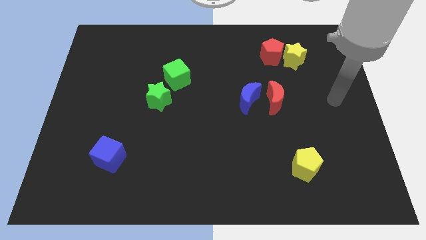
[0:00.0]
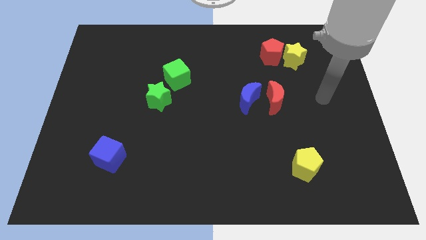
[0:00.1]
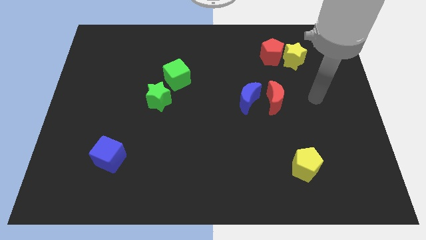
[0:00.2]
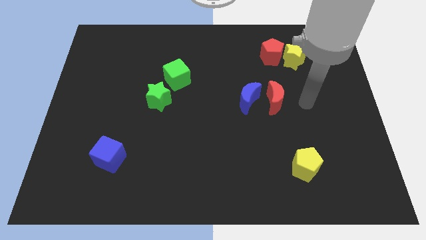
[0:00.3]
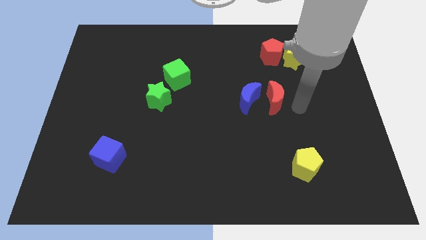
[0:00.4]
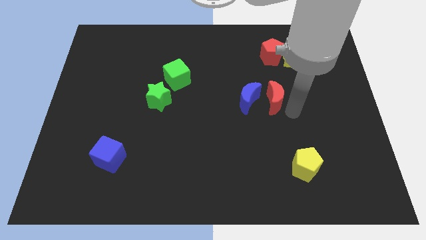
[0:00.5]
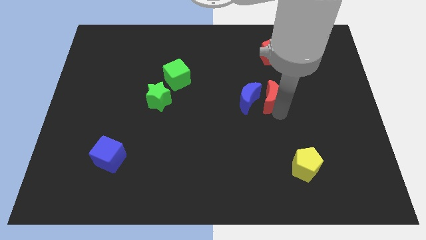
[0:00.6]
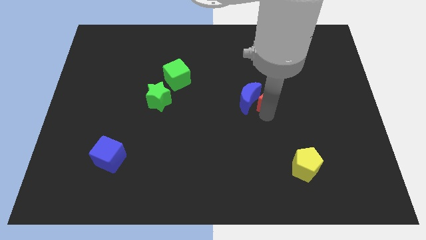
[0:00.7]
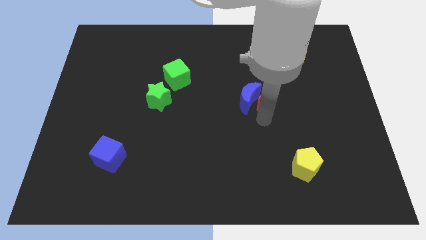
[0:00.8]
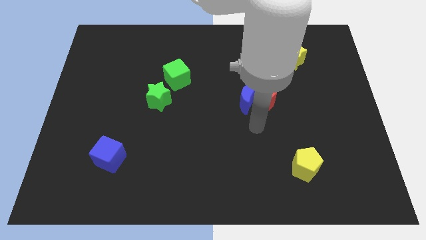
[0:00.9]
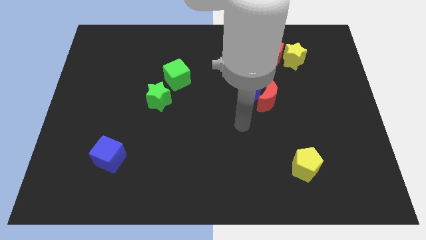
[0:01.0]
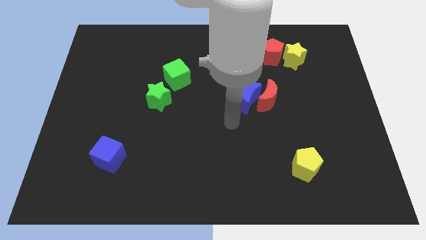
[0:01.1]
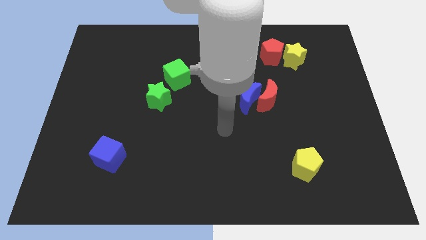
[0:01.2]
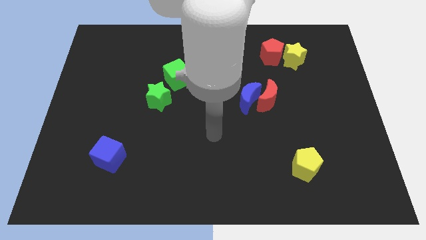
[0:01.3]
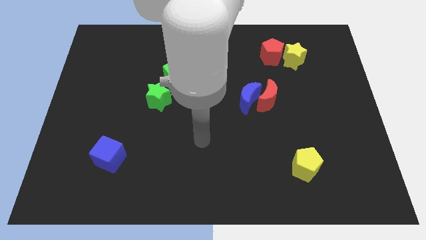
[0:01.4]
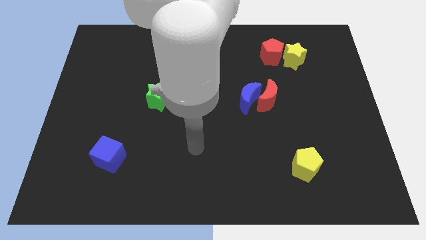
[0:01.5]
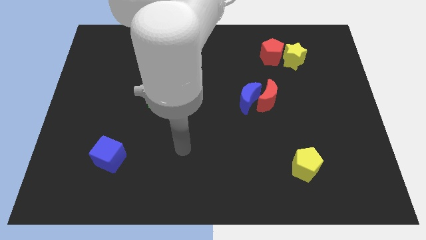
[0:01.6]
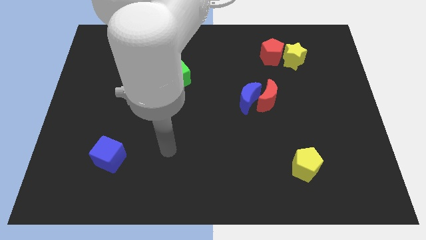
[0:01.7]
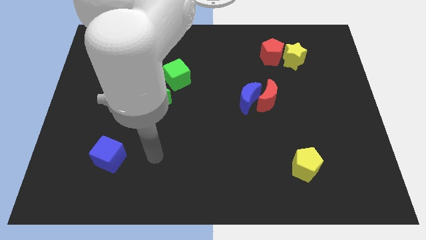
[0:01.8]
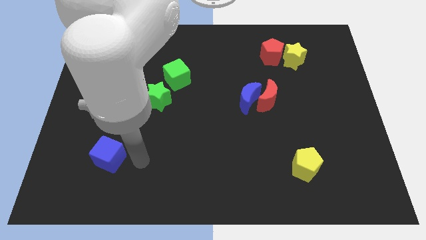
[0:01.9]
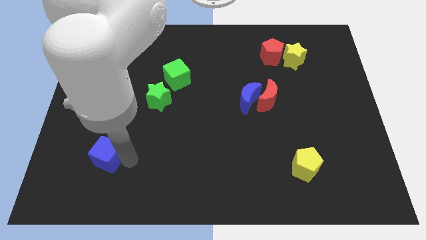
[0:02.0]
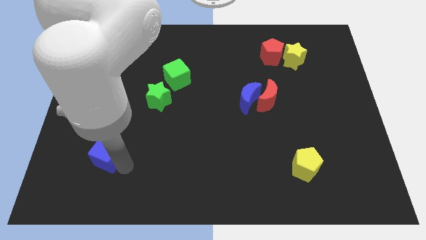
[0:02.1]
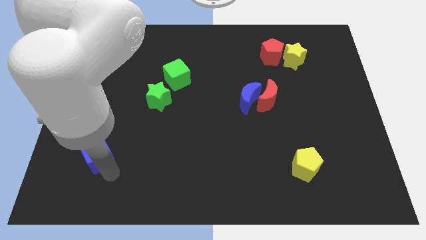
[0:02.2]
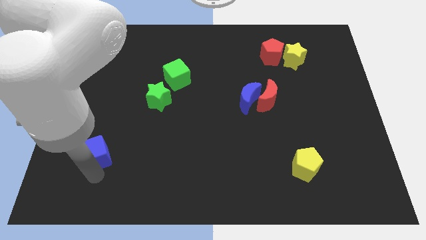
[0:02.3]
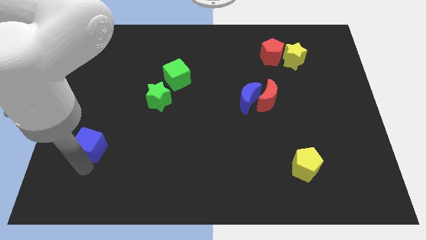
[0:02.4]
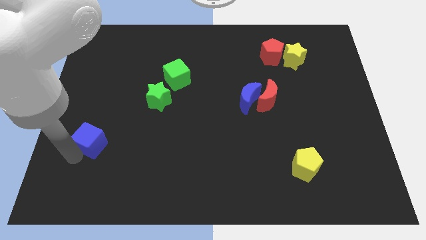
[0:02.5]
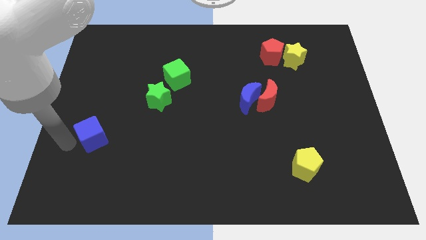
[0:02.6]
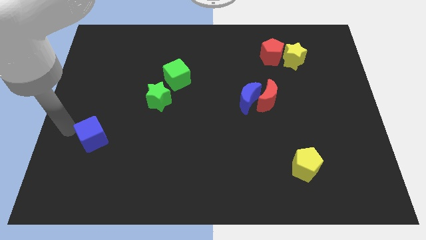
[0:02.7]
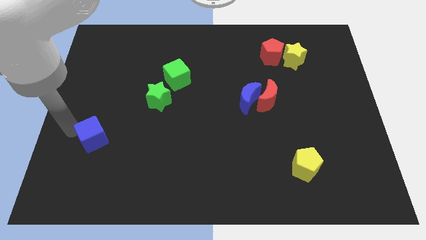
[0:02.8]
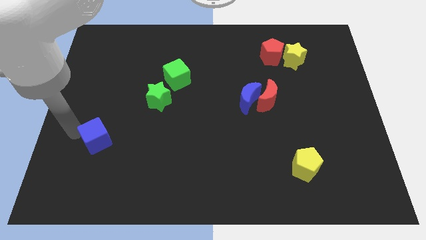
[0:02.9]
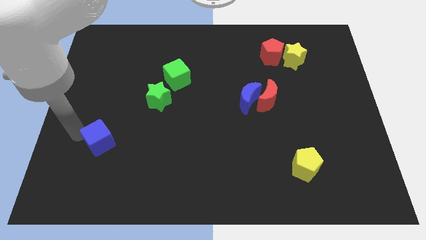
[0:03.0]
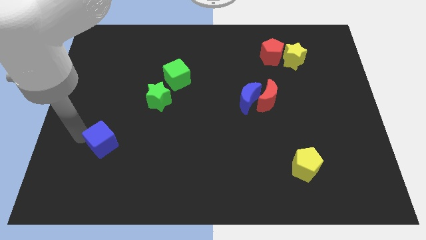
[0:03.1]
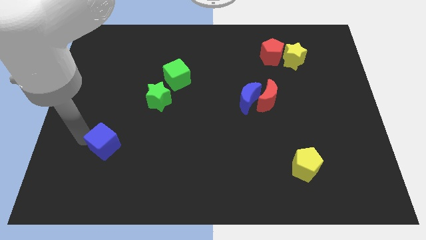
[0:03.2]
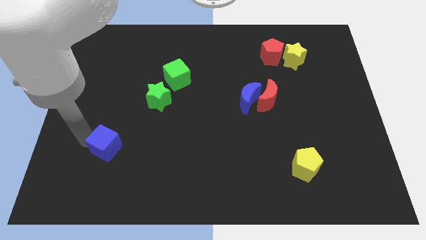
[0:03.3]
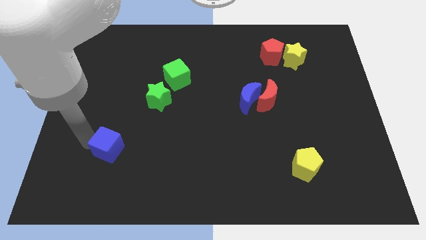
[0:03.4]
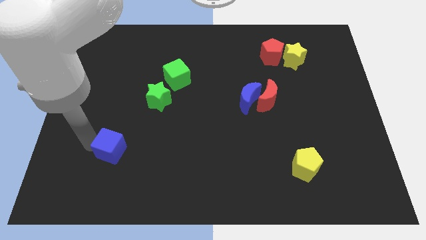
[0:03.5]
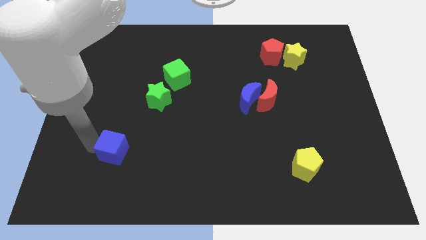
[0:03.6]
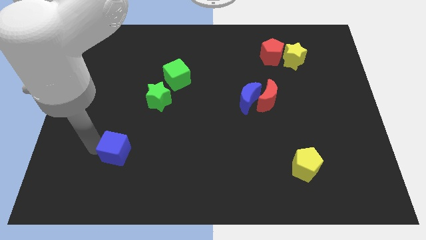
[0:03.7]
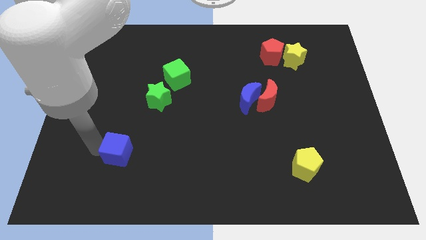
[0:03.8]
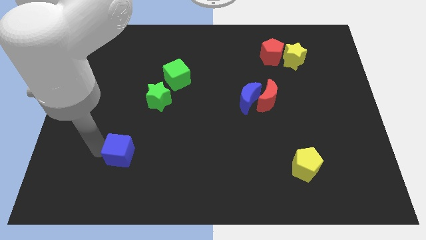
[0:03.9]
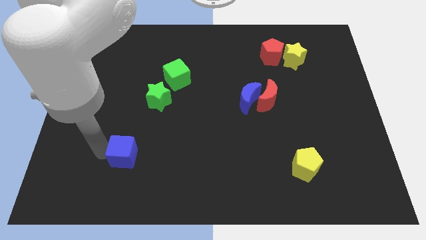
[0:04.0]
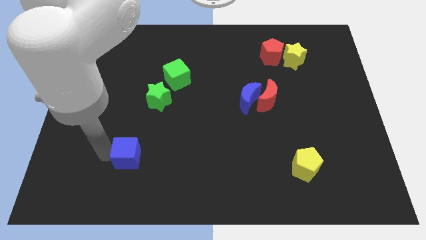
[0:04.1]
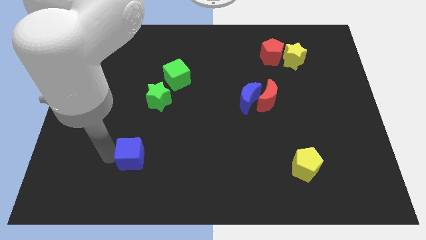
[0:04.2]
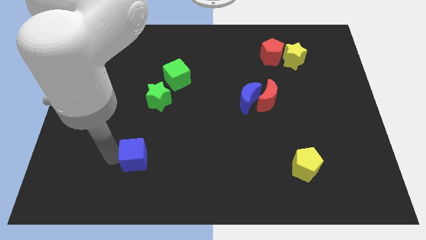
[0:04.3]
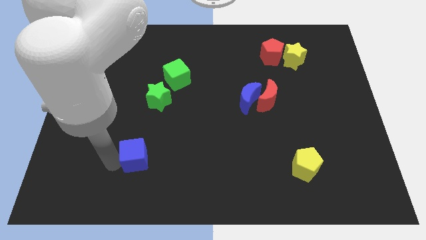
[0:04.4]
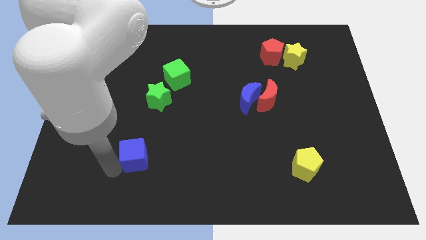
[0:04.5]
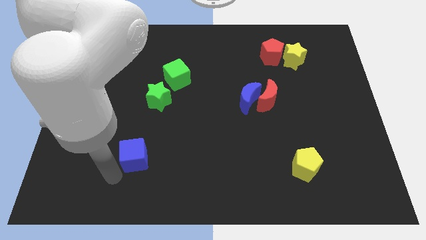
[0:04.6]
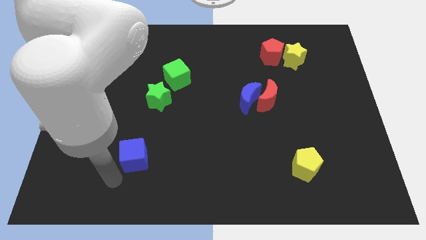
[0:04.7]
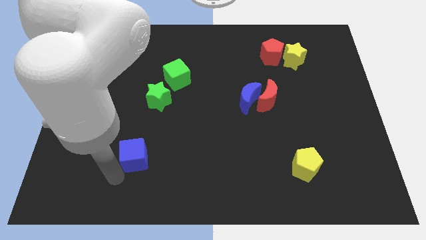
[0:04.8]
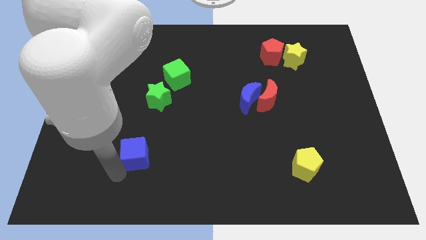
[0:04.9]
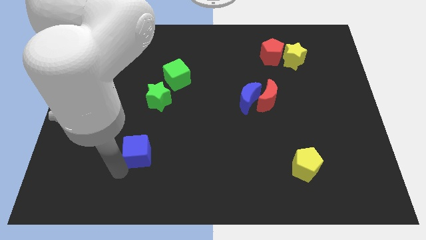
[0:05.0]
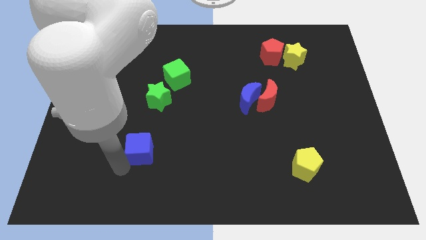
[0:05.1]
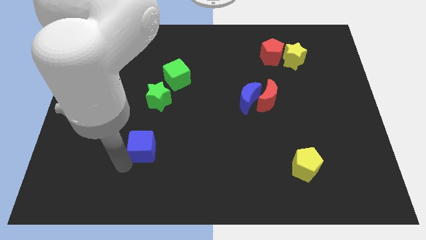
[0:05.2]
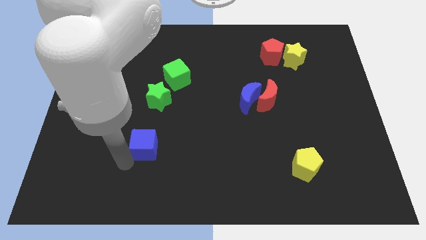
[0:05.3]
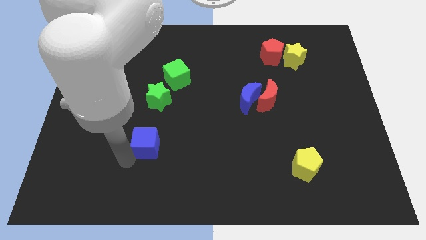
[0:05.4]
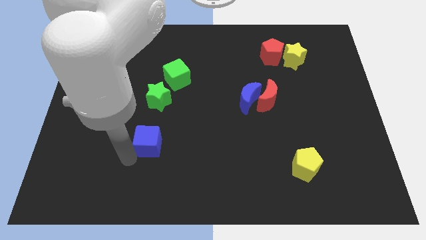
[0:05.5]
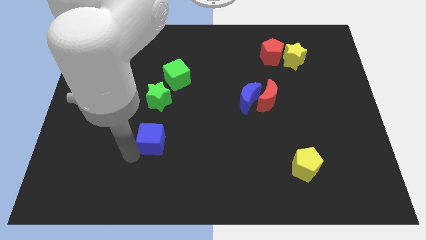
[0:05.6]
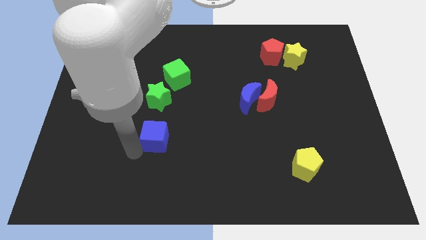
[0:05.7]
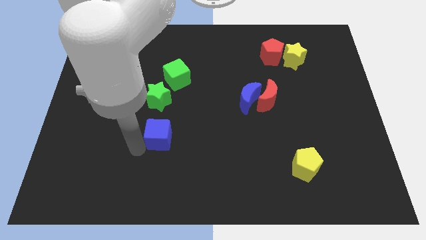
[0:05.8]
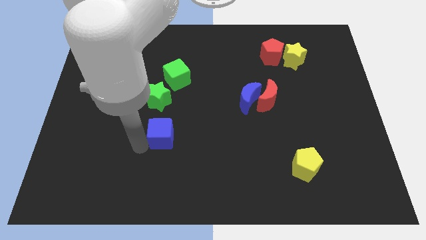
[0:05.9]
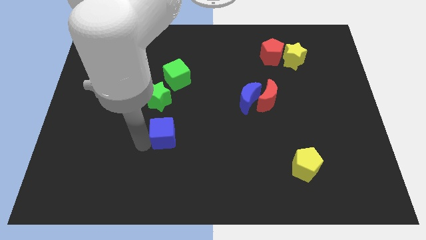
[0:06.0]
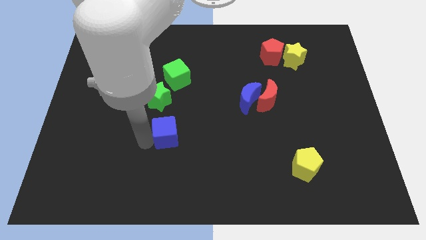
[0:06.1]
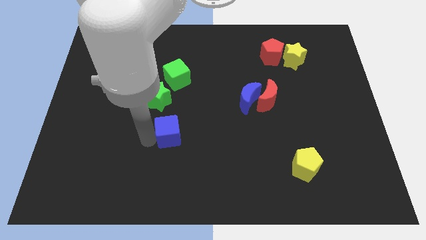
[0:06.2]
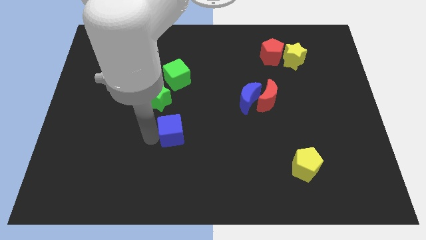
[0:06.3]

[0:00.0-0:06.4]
push the blue cube to the bottom right of the green star
